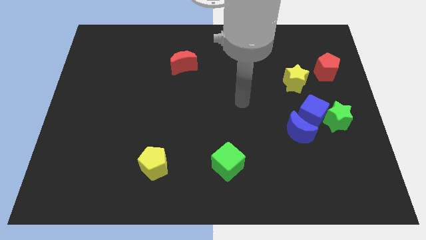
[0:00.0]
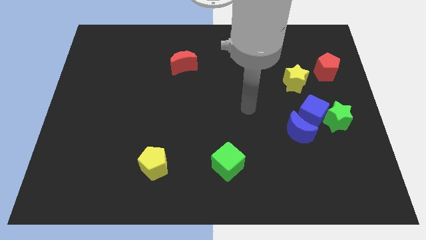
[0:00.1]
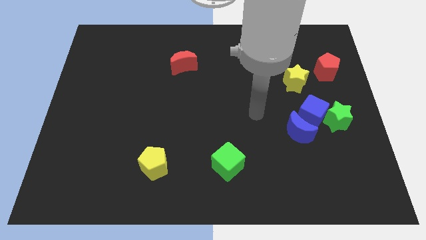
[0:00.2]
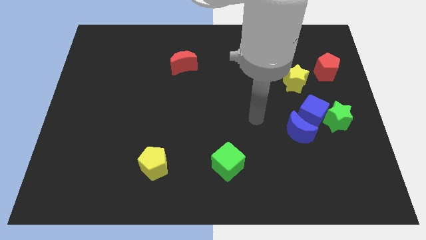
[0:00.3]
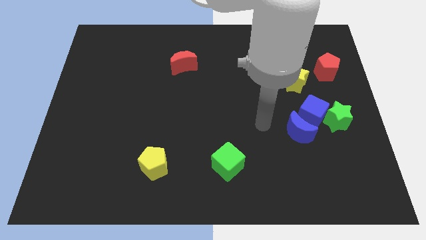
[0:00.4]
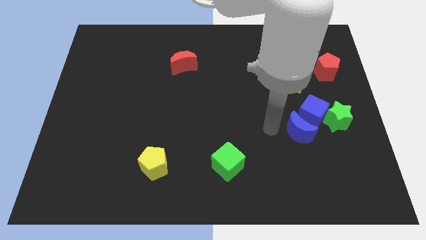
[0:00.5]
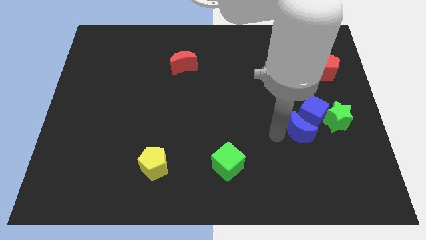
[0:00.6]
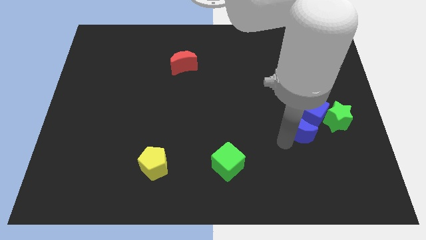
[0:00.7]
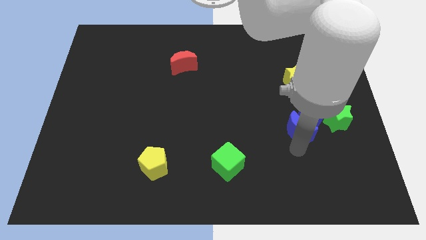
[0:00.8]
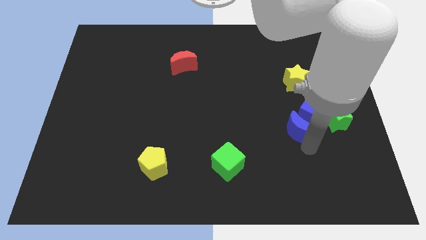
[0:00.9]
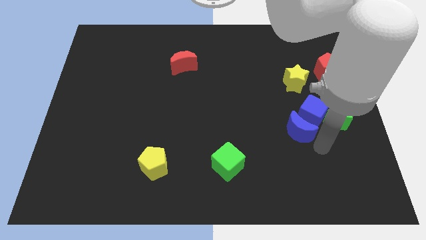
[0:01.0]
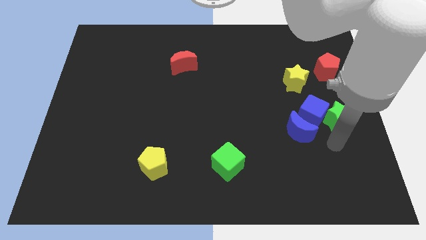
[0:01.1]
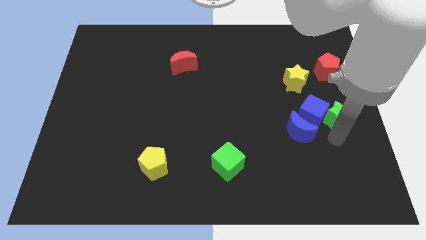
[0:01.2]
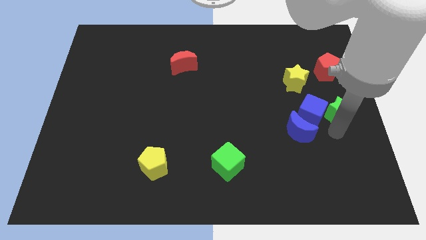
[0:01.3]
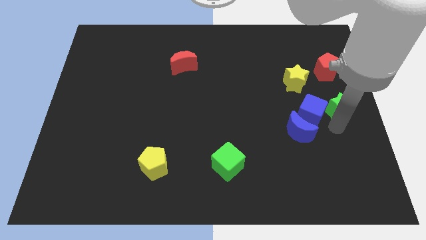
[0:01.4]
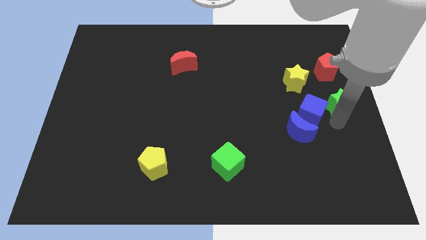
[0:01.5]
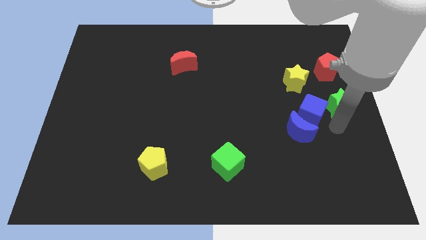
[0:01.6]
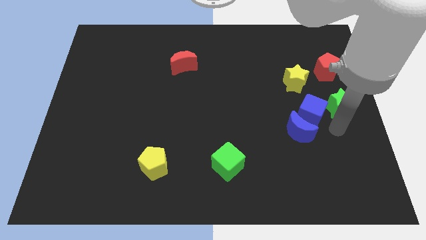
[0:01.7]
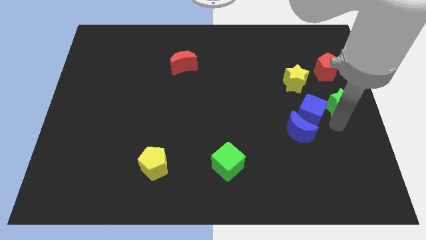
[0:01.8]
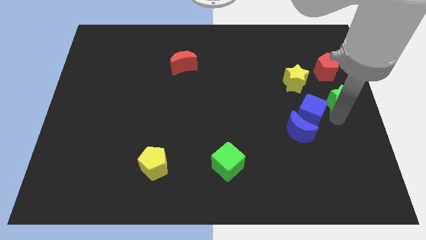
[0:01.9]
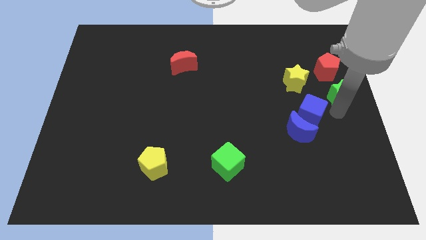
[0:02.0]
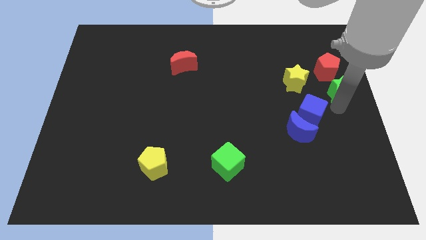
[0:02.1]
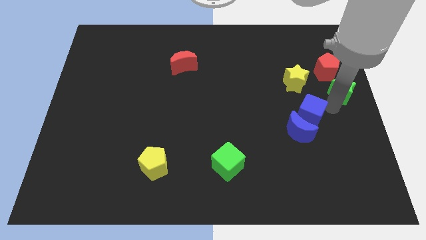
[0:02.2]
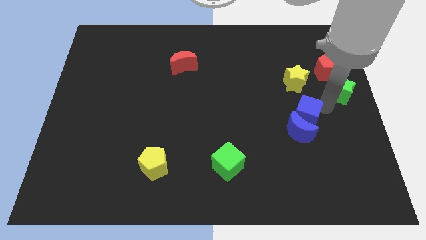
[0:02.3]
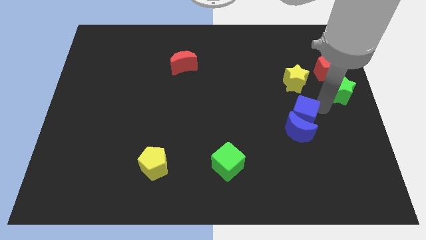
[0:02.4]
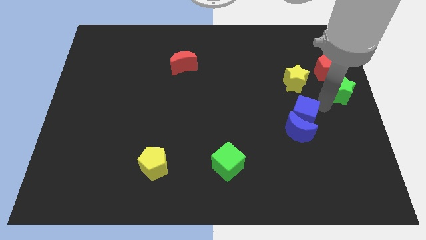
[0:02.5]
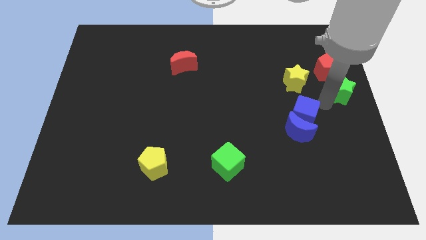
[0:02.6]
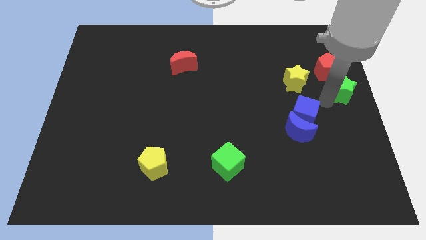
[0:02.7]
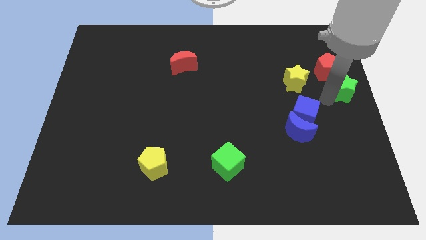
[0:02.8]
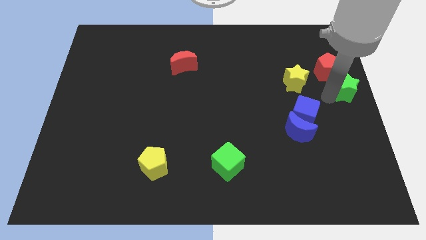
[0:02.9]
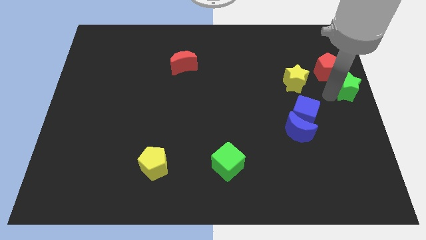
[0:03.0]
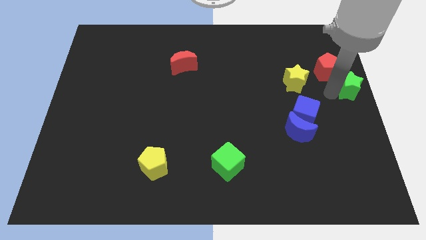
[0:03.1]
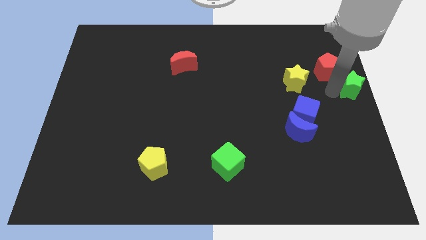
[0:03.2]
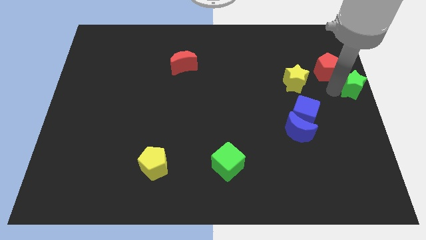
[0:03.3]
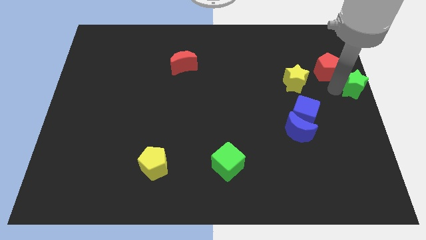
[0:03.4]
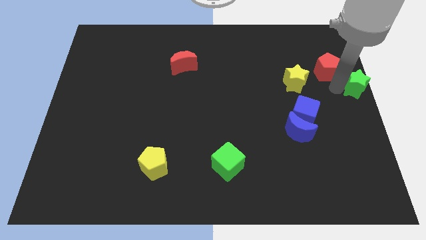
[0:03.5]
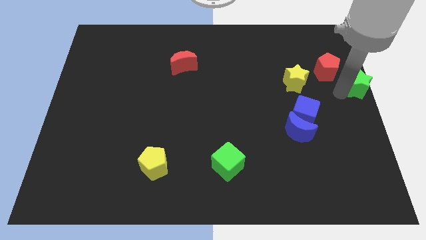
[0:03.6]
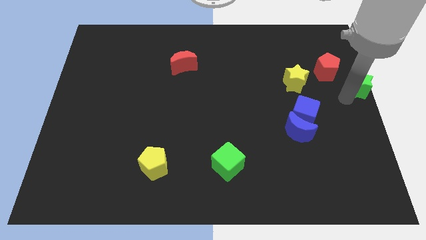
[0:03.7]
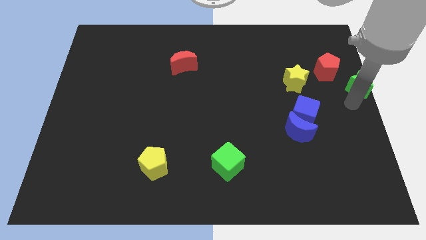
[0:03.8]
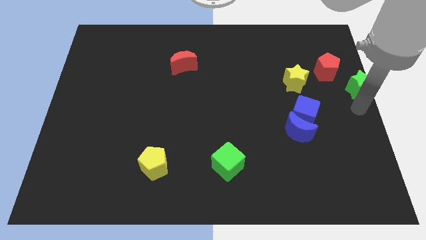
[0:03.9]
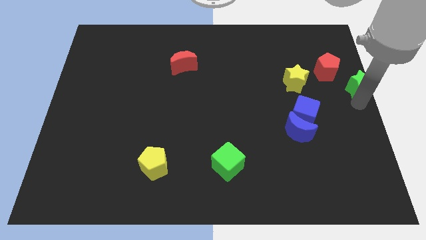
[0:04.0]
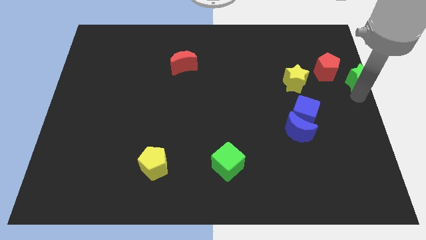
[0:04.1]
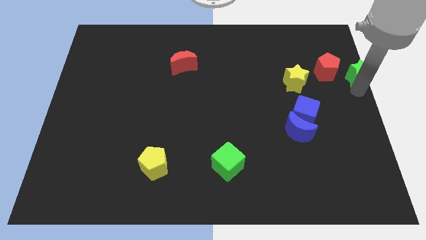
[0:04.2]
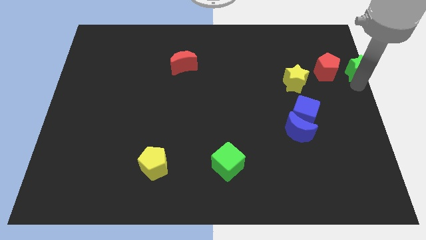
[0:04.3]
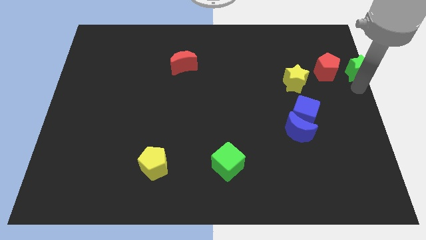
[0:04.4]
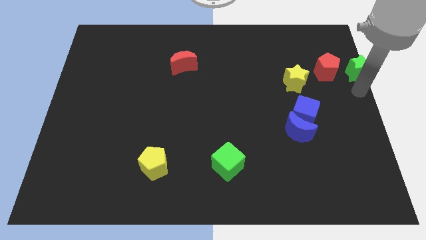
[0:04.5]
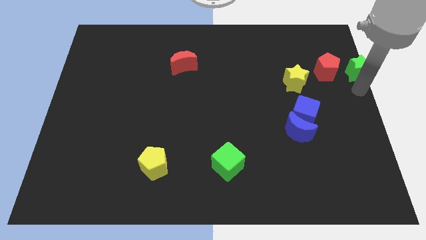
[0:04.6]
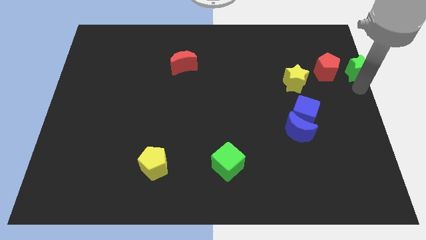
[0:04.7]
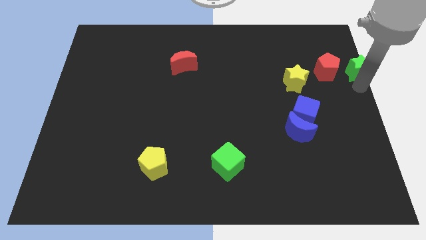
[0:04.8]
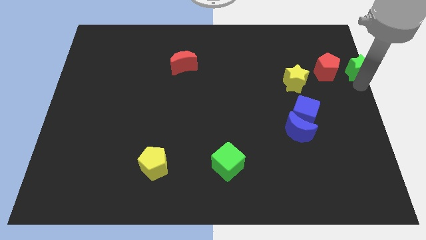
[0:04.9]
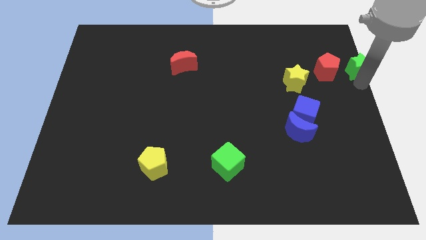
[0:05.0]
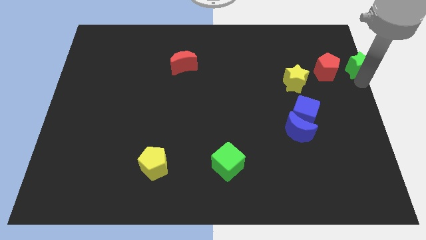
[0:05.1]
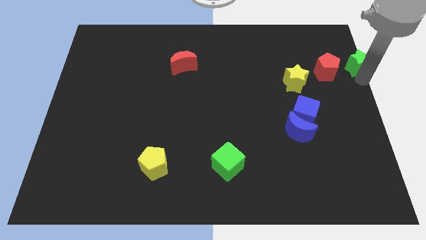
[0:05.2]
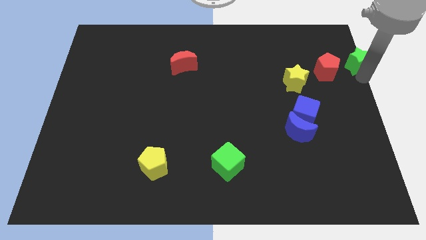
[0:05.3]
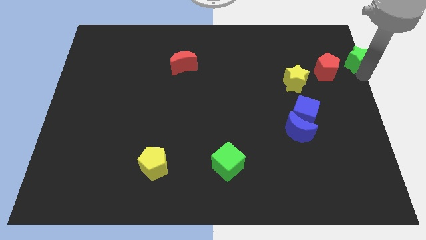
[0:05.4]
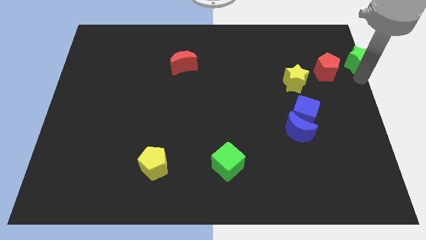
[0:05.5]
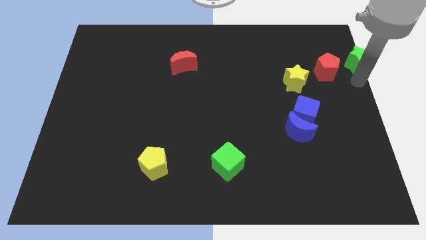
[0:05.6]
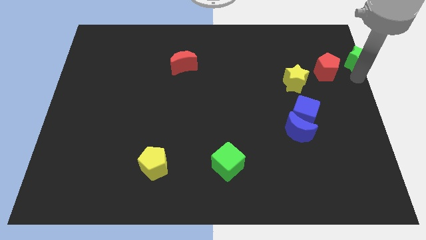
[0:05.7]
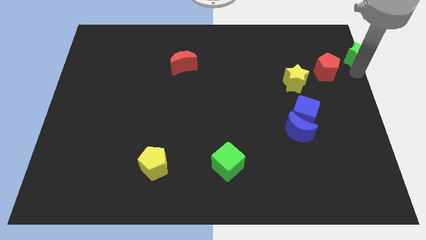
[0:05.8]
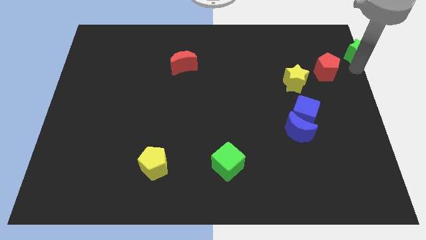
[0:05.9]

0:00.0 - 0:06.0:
put the green star to the top right of the board
